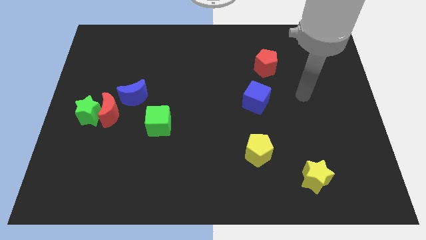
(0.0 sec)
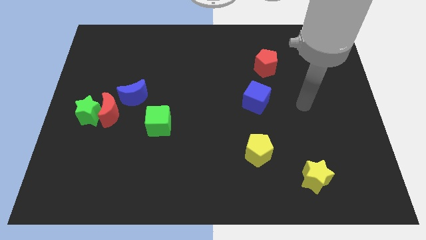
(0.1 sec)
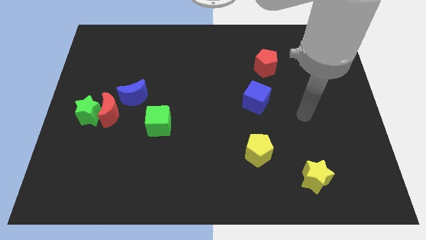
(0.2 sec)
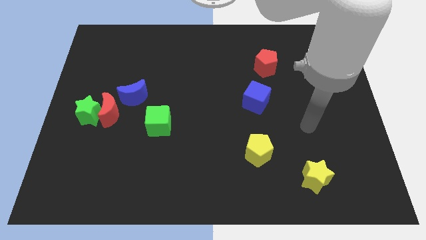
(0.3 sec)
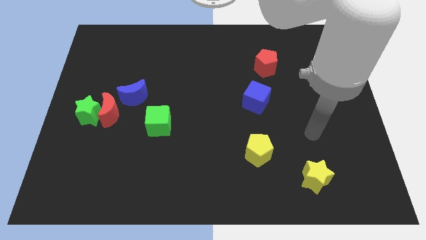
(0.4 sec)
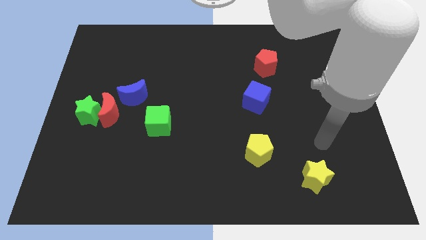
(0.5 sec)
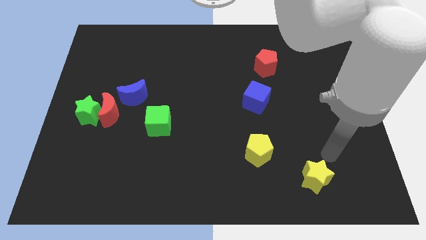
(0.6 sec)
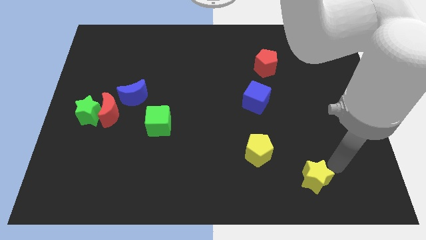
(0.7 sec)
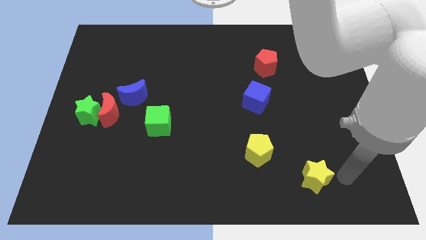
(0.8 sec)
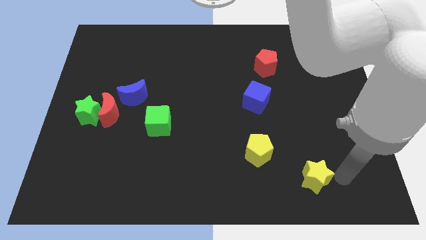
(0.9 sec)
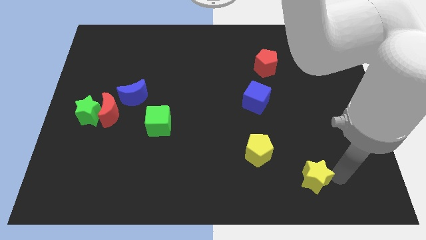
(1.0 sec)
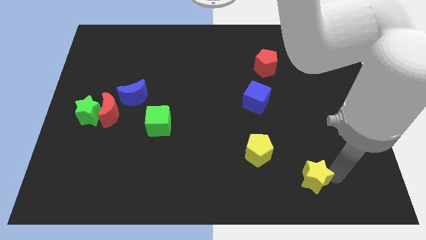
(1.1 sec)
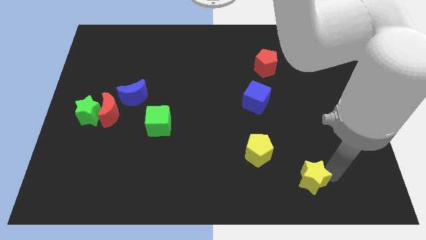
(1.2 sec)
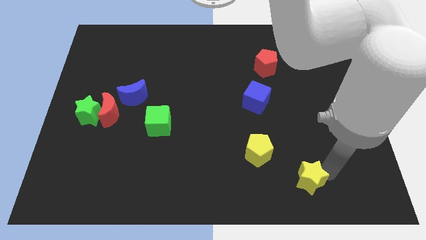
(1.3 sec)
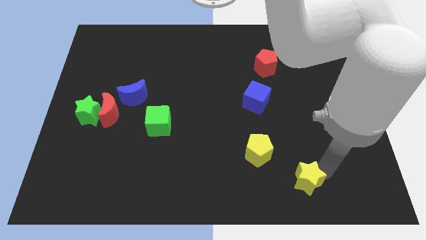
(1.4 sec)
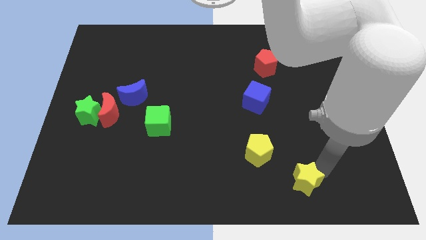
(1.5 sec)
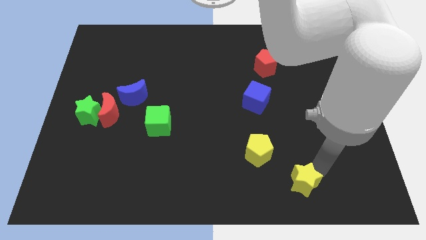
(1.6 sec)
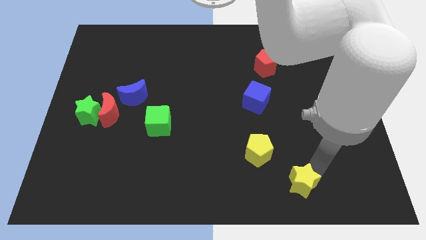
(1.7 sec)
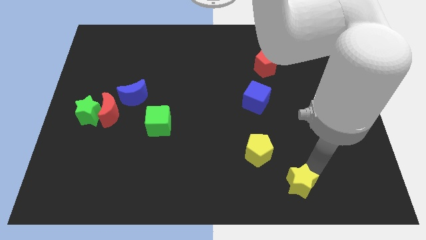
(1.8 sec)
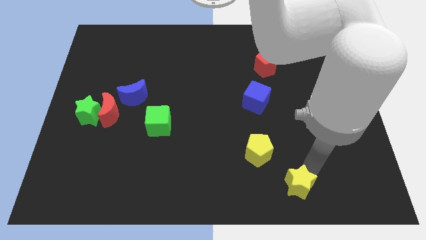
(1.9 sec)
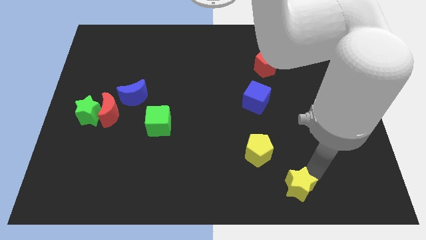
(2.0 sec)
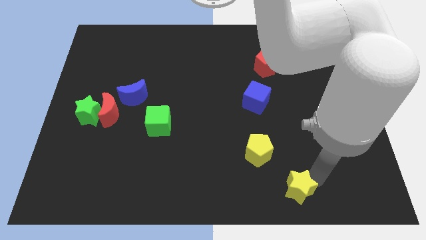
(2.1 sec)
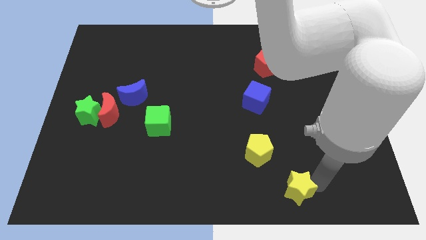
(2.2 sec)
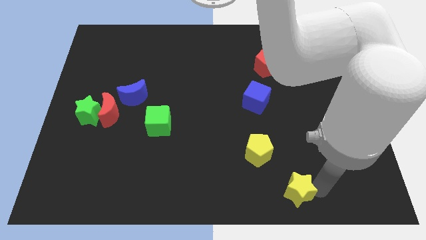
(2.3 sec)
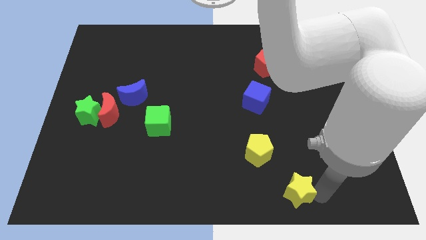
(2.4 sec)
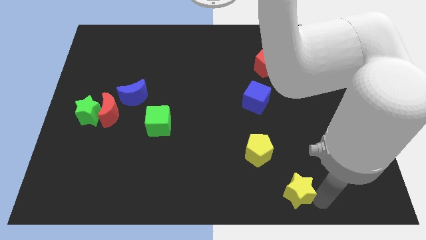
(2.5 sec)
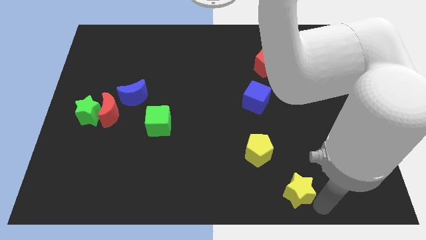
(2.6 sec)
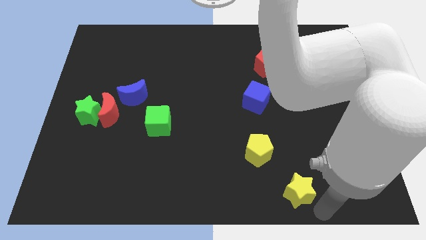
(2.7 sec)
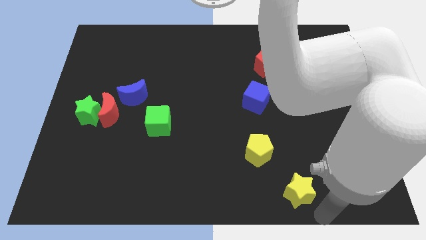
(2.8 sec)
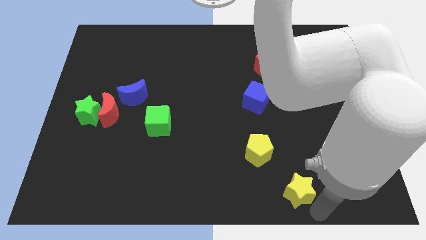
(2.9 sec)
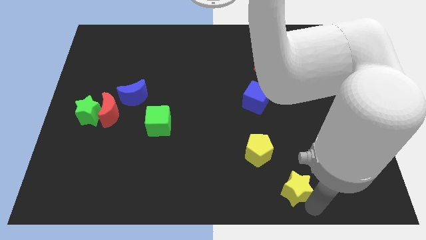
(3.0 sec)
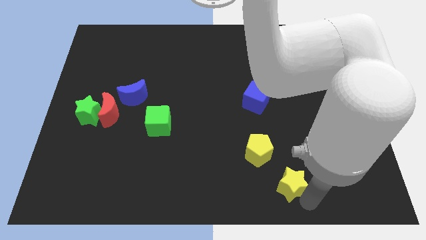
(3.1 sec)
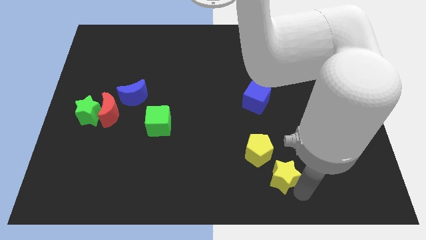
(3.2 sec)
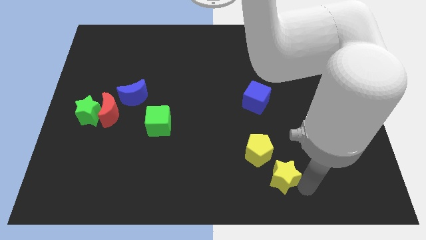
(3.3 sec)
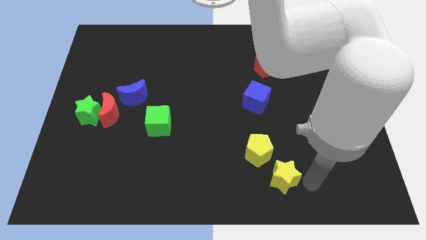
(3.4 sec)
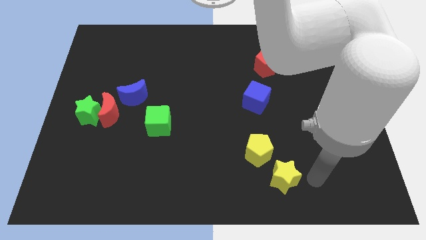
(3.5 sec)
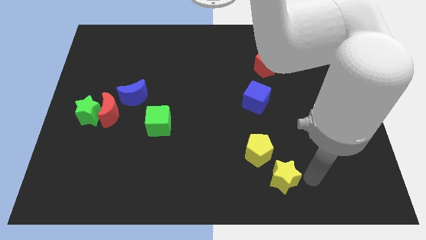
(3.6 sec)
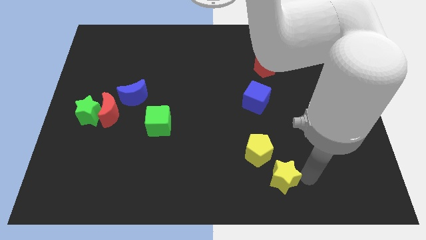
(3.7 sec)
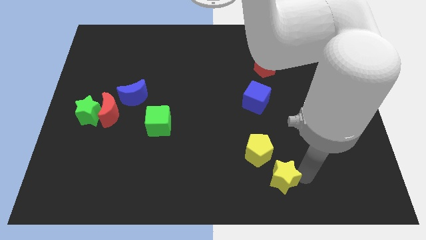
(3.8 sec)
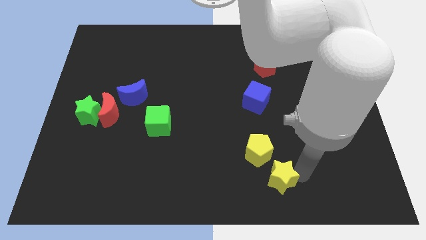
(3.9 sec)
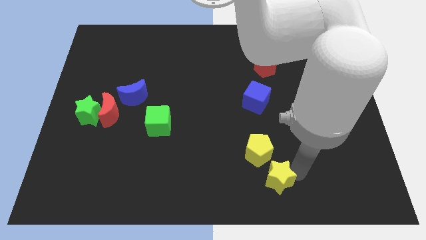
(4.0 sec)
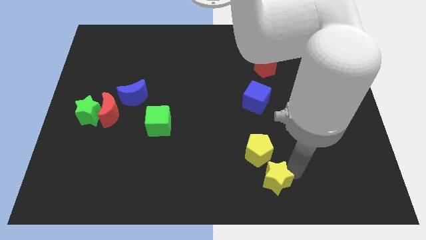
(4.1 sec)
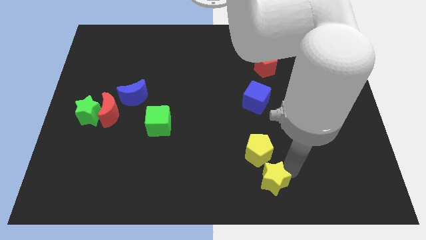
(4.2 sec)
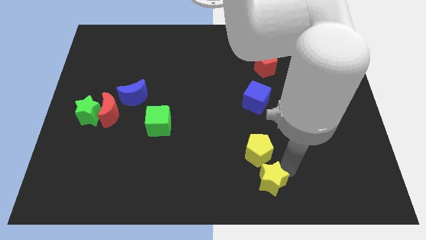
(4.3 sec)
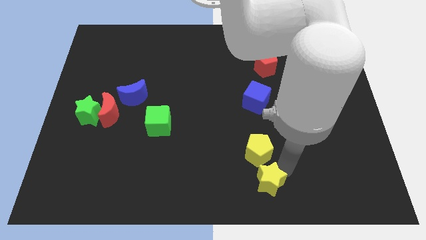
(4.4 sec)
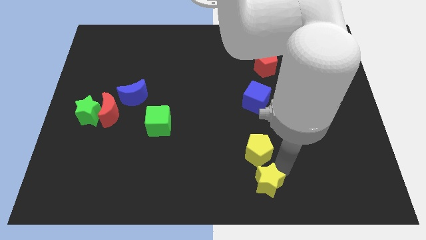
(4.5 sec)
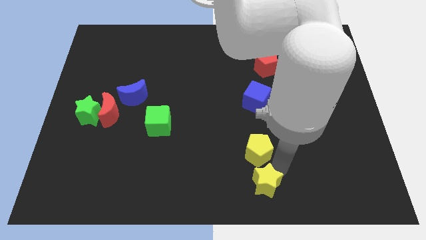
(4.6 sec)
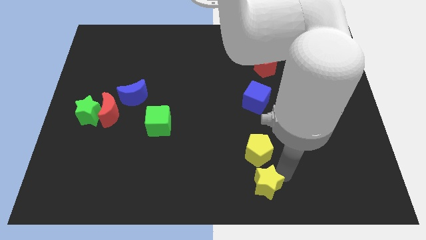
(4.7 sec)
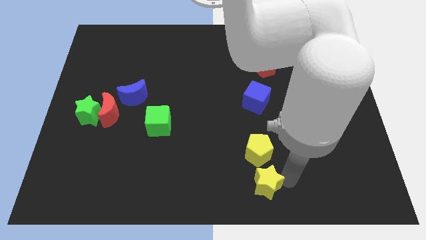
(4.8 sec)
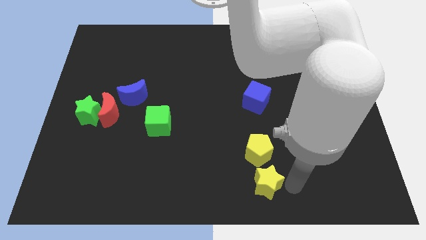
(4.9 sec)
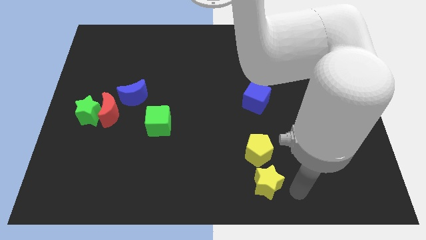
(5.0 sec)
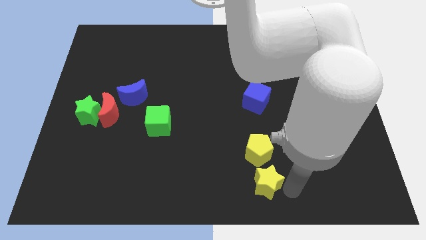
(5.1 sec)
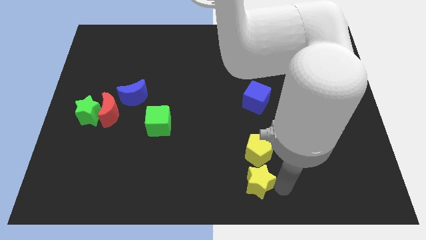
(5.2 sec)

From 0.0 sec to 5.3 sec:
push the yellow star to the bottom left side of the yellow pentagon

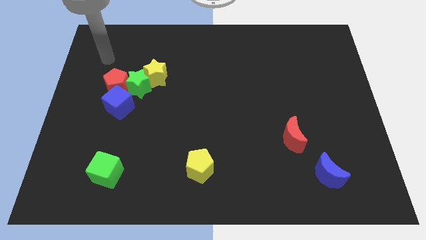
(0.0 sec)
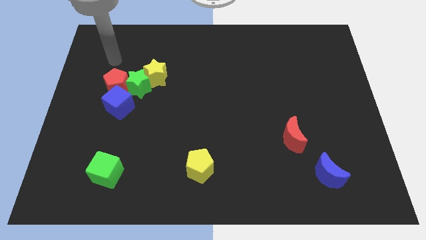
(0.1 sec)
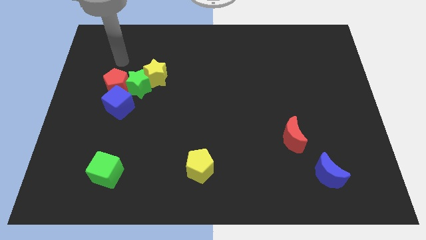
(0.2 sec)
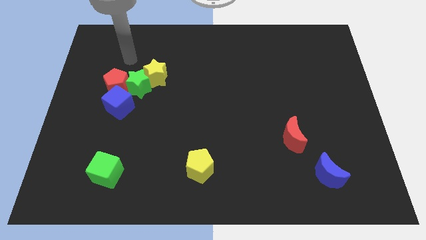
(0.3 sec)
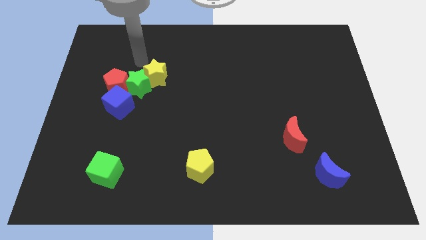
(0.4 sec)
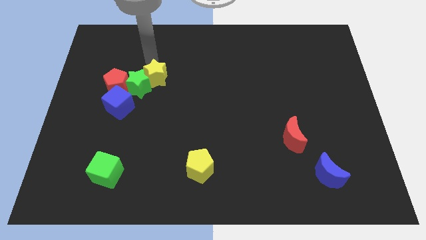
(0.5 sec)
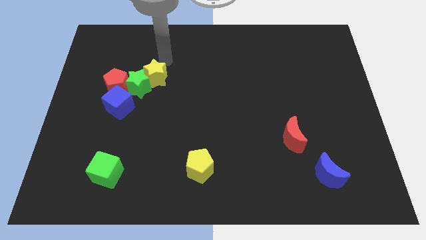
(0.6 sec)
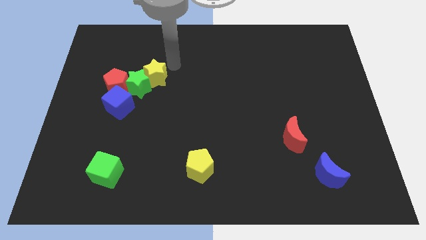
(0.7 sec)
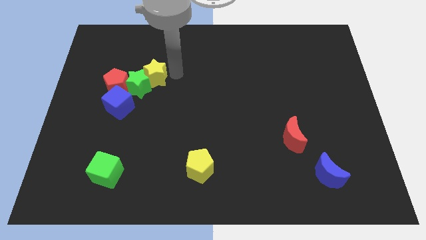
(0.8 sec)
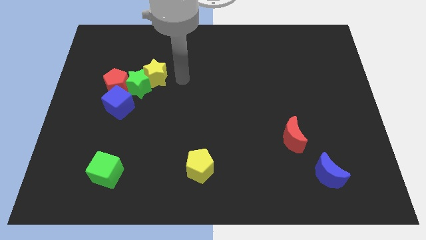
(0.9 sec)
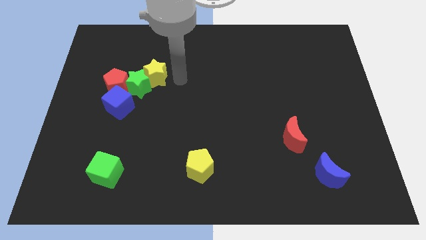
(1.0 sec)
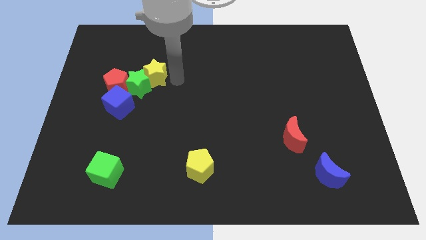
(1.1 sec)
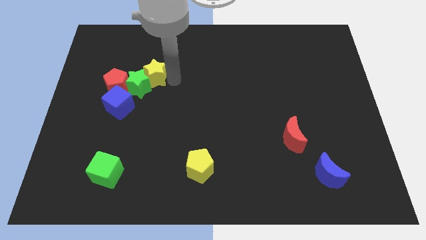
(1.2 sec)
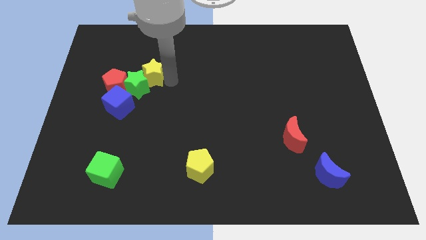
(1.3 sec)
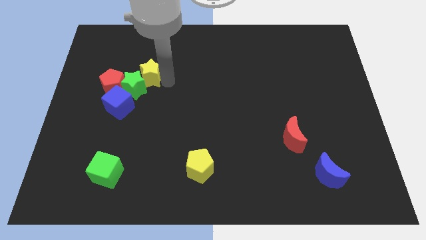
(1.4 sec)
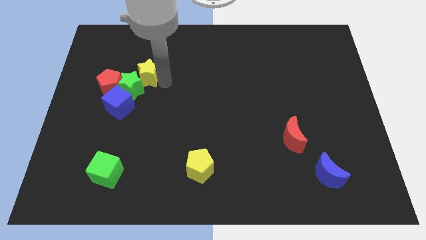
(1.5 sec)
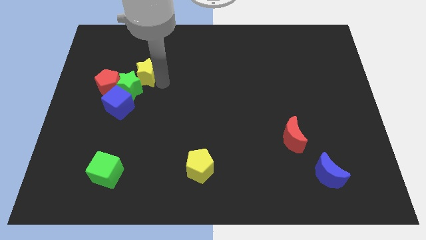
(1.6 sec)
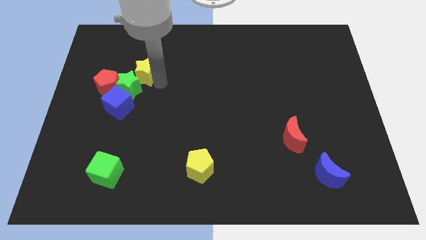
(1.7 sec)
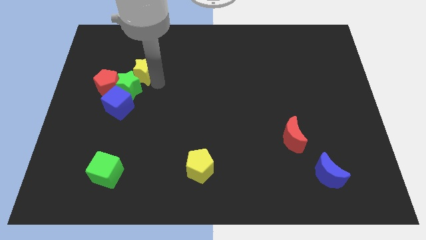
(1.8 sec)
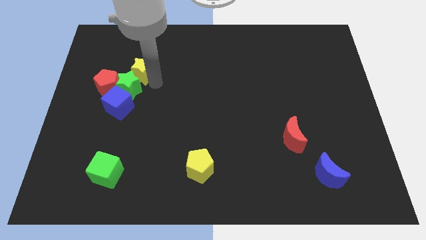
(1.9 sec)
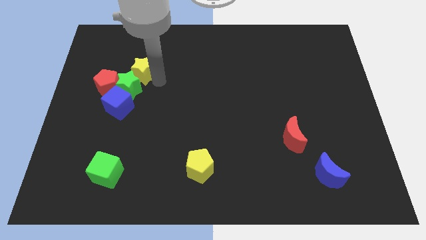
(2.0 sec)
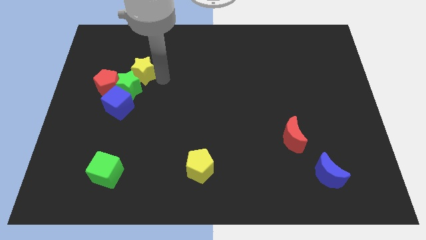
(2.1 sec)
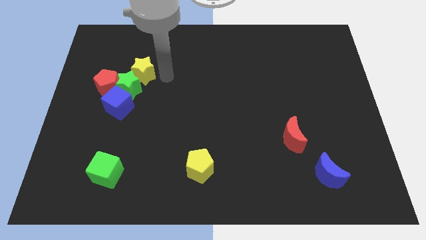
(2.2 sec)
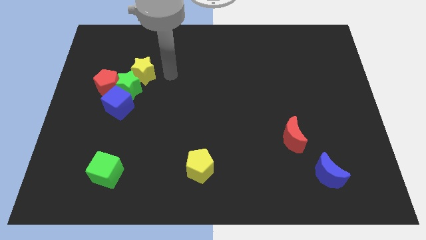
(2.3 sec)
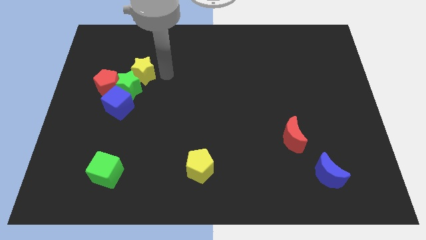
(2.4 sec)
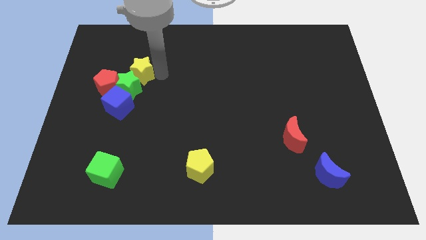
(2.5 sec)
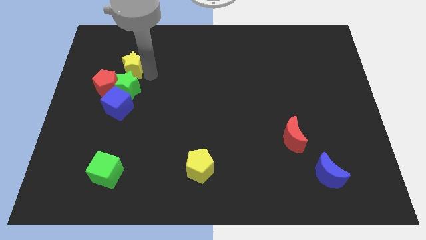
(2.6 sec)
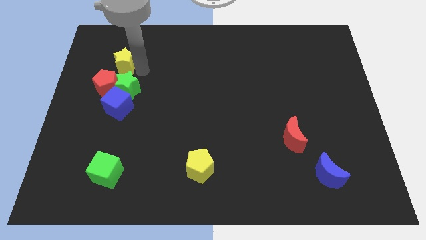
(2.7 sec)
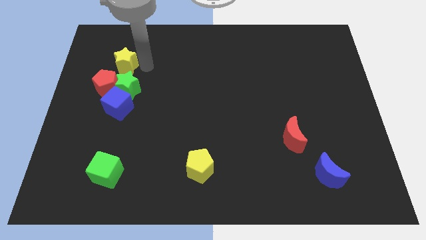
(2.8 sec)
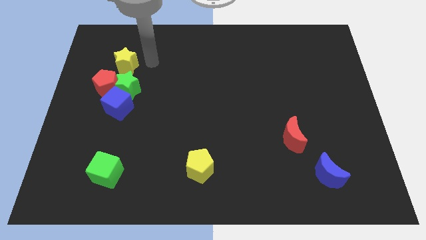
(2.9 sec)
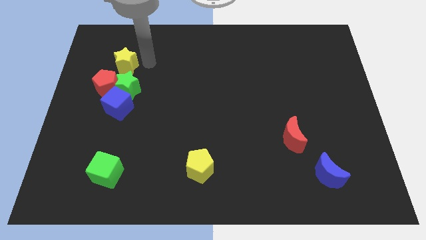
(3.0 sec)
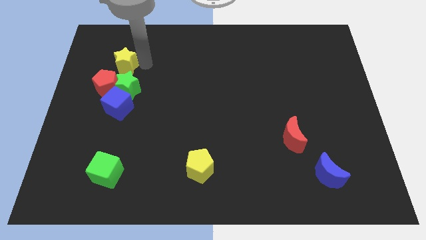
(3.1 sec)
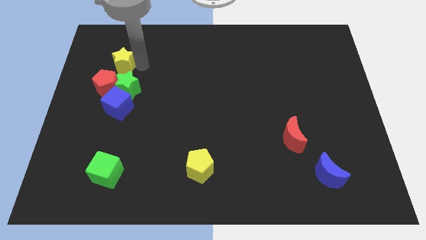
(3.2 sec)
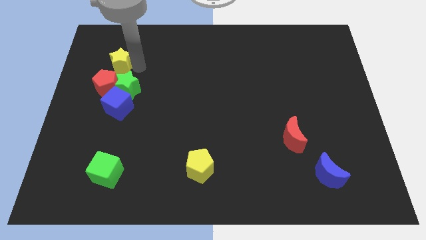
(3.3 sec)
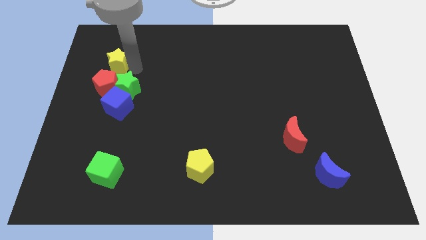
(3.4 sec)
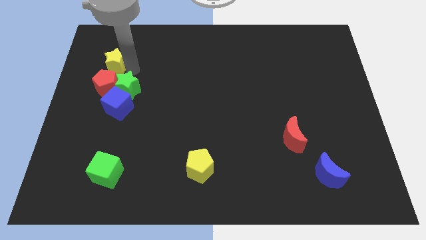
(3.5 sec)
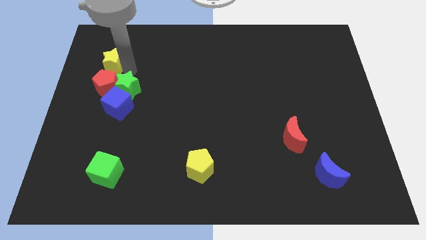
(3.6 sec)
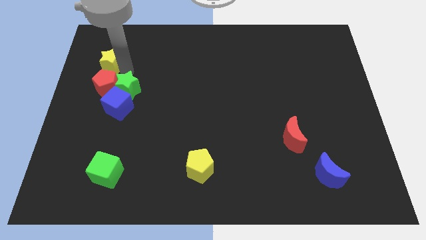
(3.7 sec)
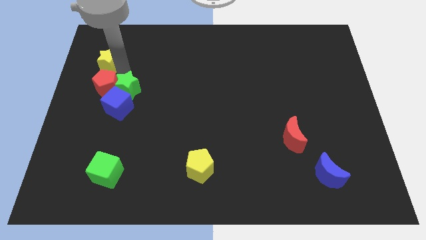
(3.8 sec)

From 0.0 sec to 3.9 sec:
put the yellow star diagonally up and to the left of the red pentagon
